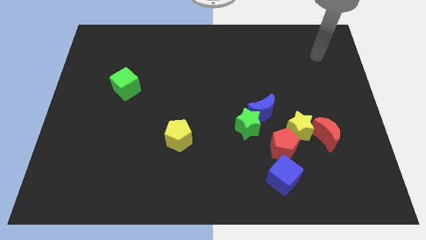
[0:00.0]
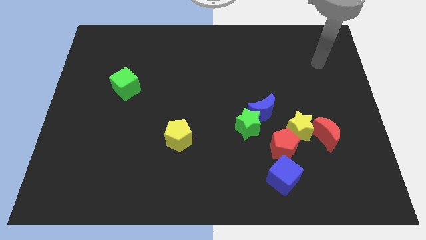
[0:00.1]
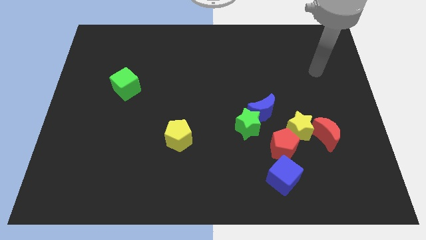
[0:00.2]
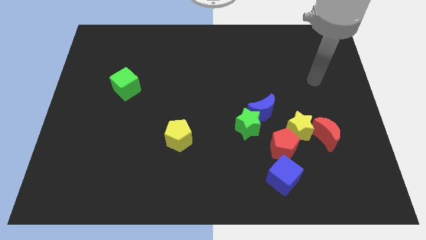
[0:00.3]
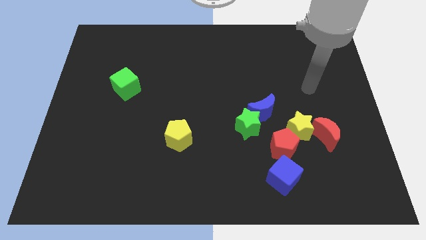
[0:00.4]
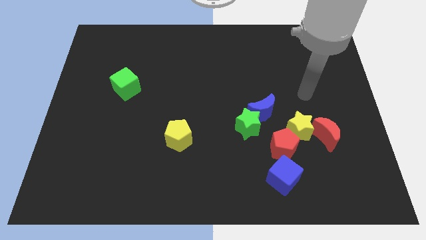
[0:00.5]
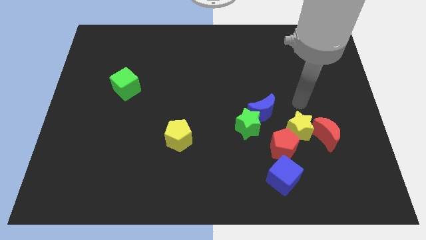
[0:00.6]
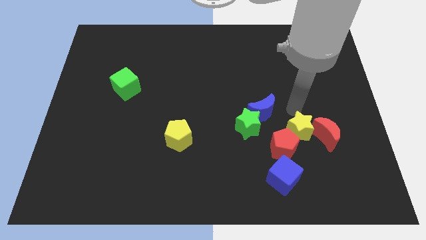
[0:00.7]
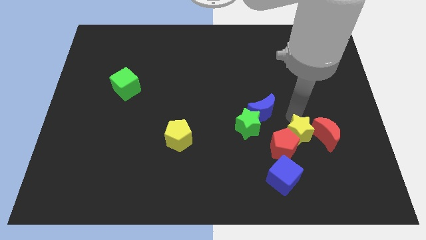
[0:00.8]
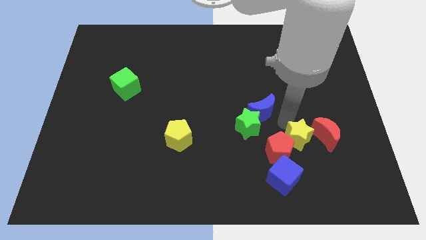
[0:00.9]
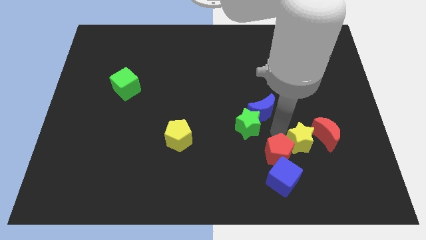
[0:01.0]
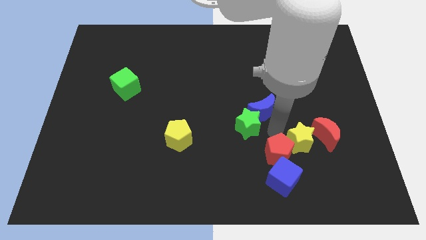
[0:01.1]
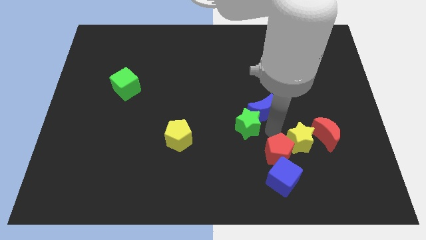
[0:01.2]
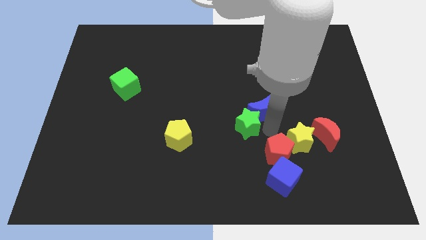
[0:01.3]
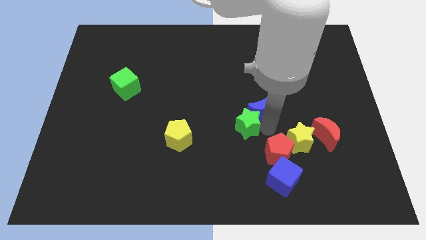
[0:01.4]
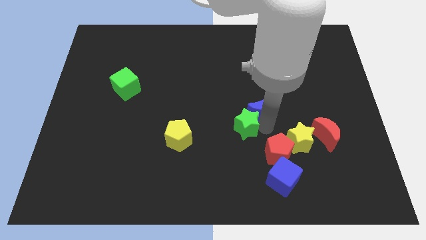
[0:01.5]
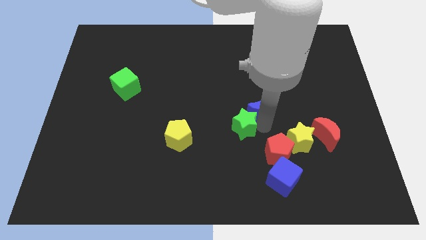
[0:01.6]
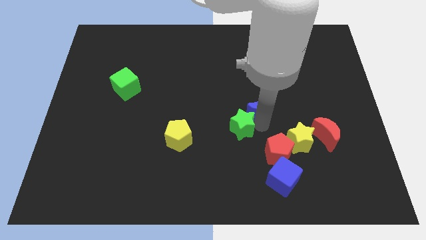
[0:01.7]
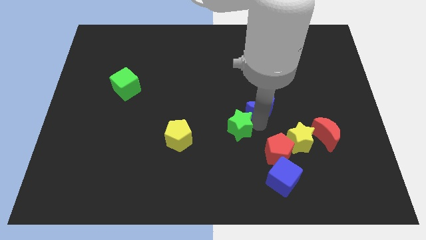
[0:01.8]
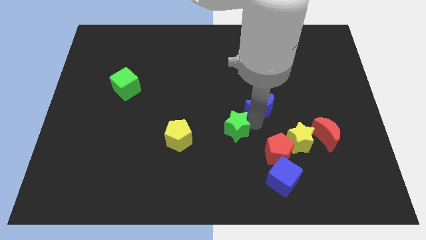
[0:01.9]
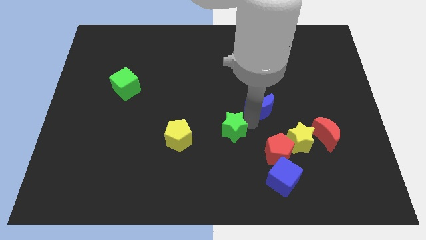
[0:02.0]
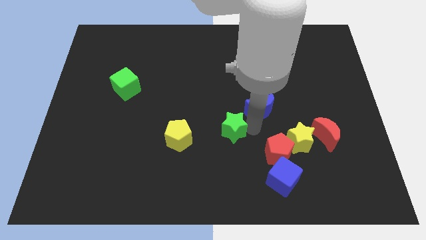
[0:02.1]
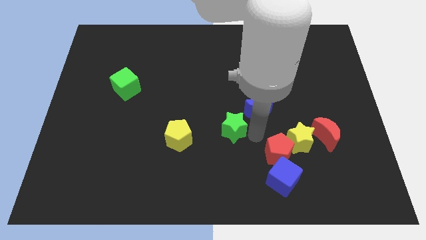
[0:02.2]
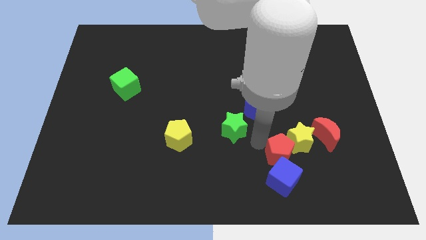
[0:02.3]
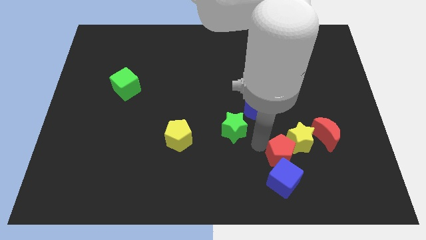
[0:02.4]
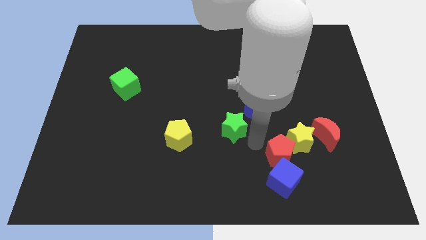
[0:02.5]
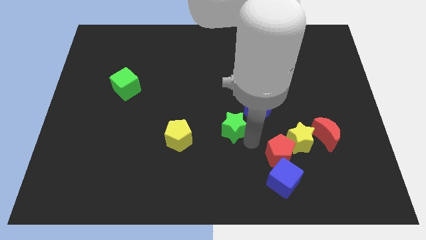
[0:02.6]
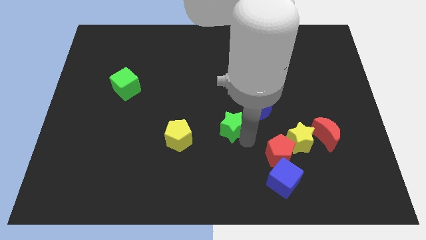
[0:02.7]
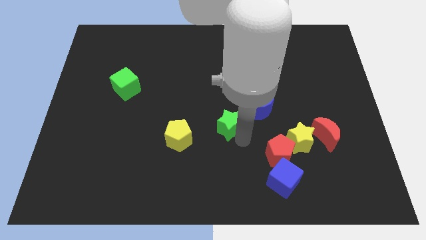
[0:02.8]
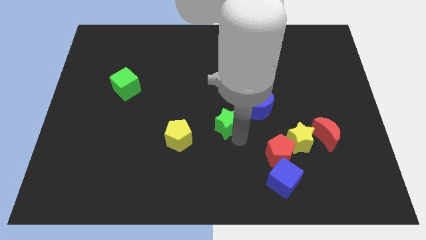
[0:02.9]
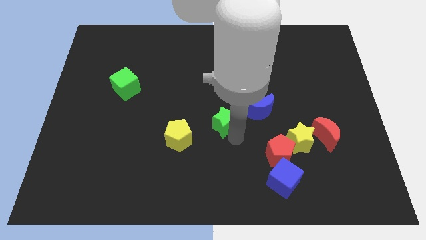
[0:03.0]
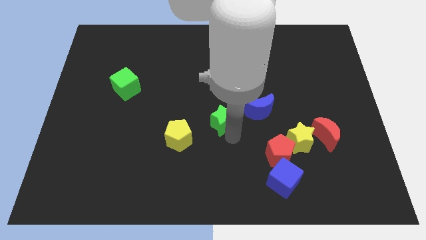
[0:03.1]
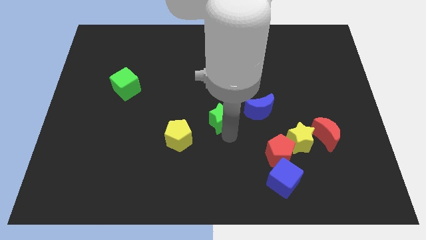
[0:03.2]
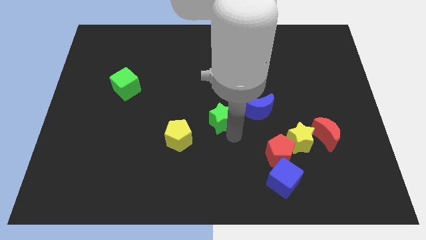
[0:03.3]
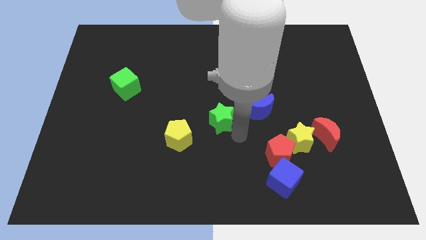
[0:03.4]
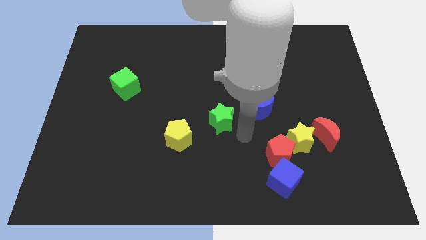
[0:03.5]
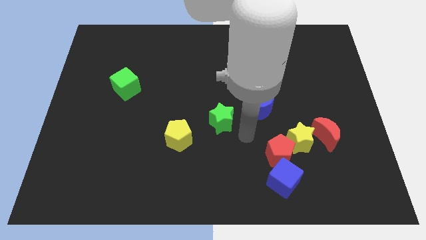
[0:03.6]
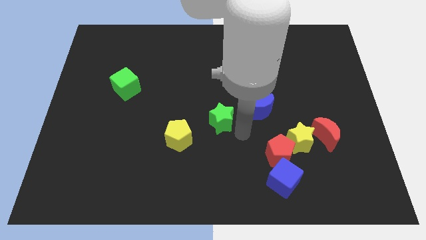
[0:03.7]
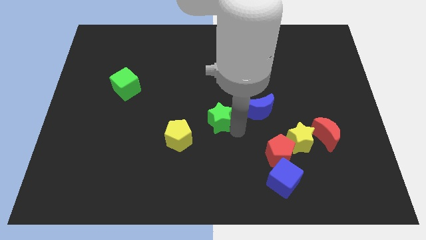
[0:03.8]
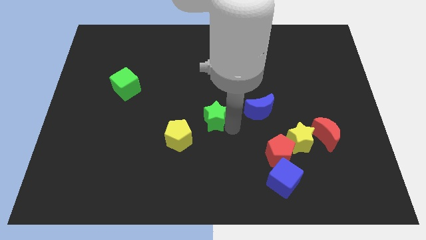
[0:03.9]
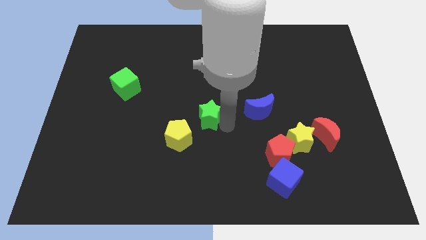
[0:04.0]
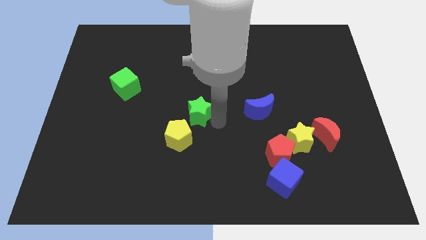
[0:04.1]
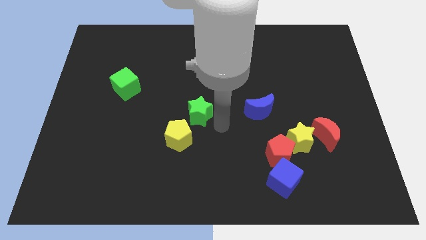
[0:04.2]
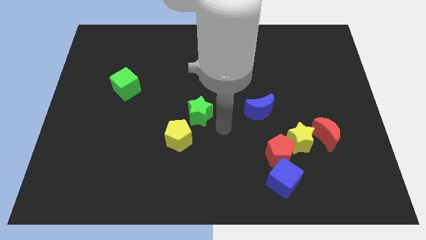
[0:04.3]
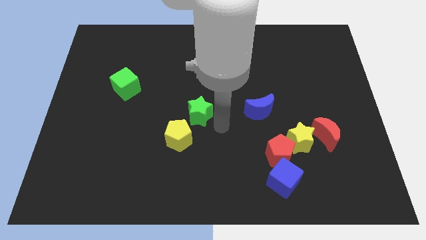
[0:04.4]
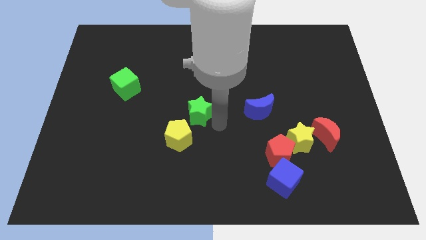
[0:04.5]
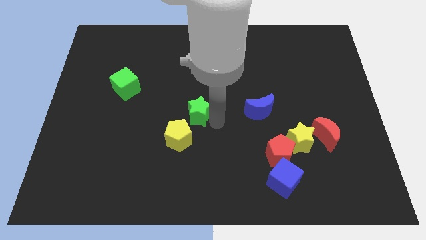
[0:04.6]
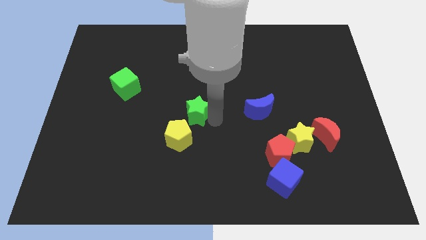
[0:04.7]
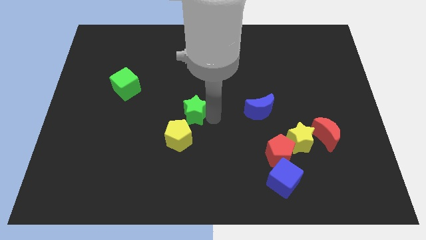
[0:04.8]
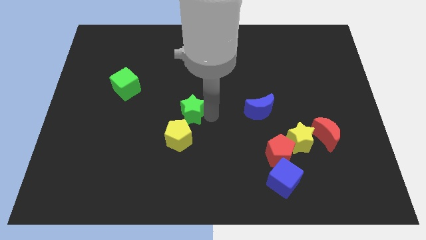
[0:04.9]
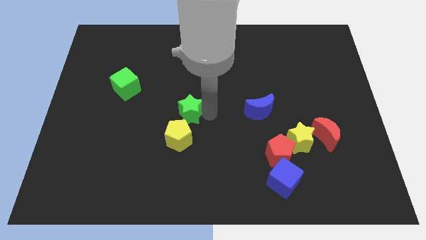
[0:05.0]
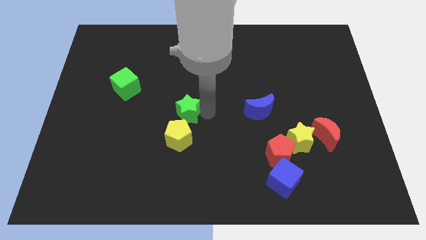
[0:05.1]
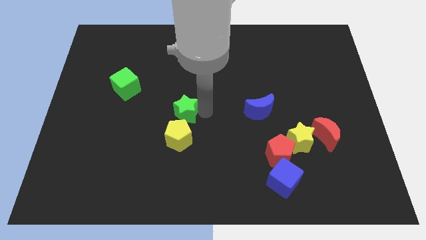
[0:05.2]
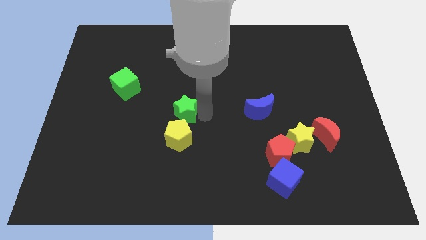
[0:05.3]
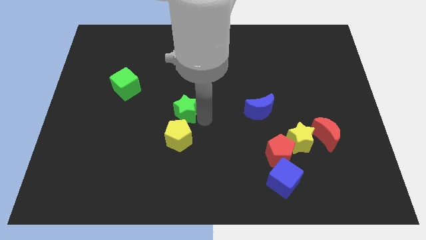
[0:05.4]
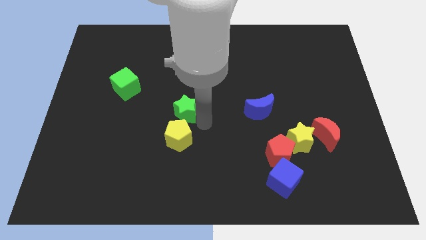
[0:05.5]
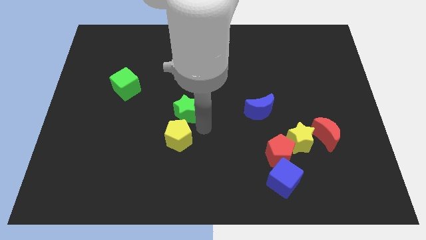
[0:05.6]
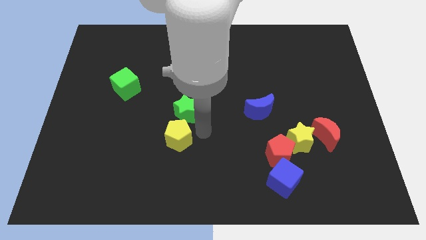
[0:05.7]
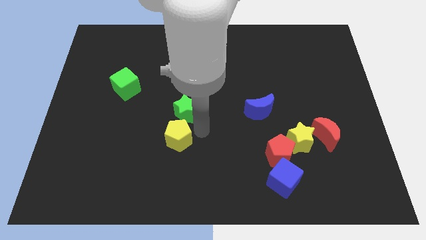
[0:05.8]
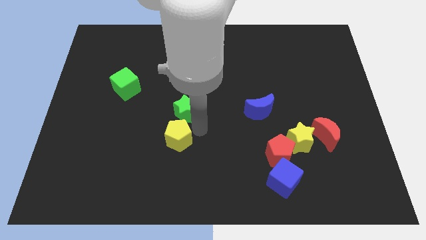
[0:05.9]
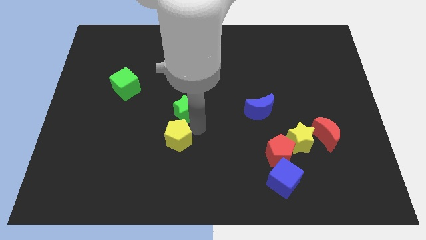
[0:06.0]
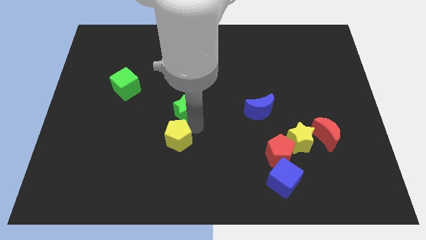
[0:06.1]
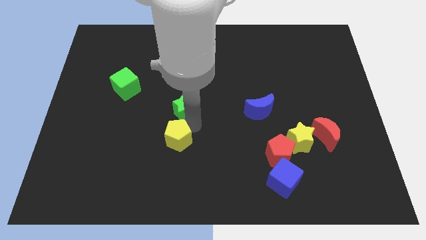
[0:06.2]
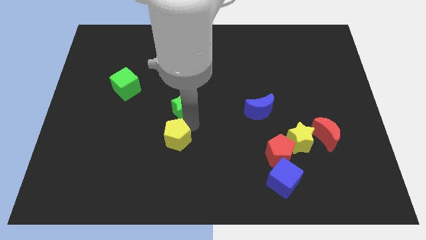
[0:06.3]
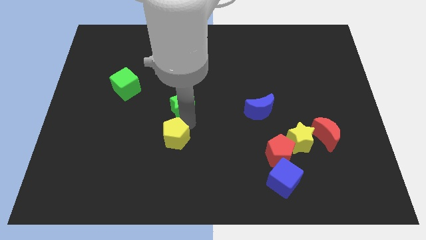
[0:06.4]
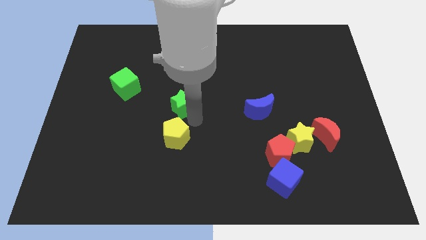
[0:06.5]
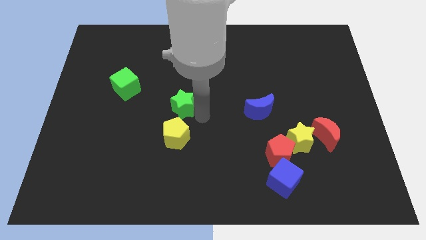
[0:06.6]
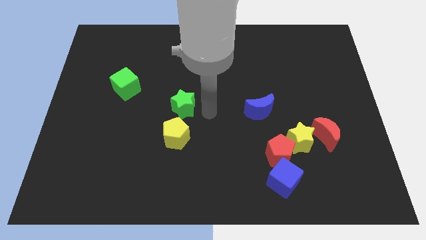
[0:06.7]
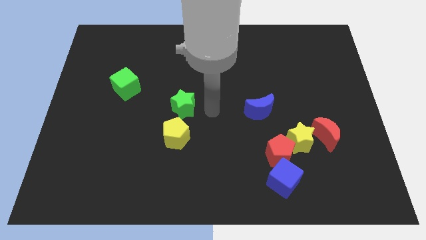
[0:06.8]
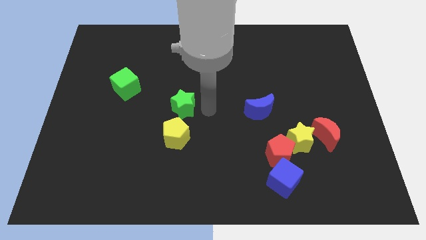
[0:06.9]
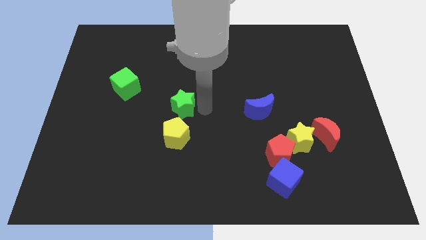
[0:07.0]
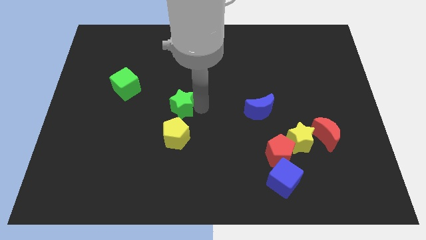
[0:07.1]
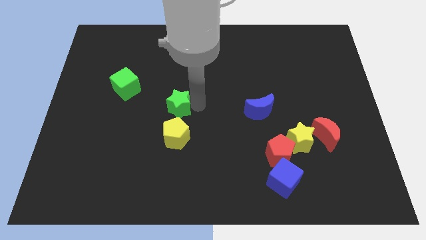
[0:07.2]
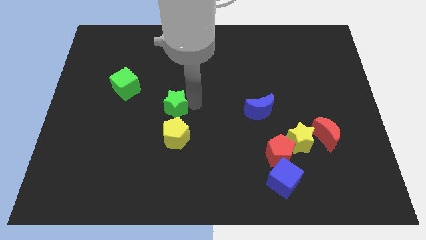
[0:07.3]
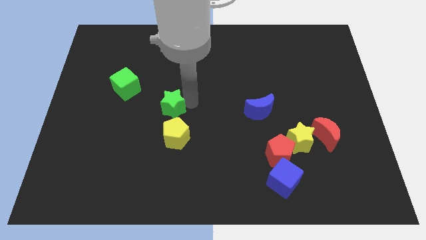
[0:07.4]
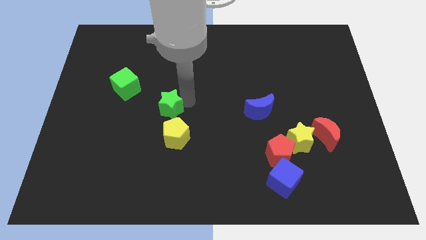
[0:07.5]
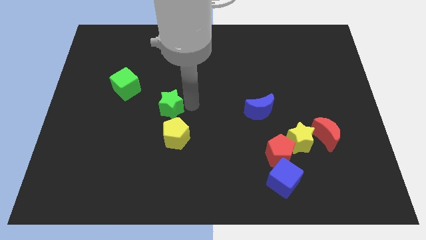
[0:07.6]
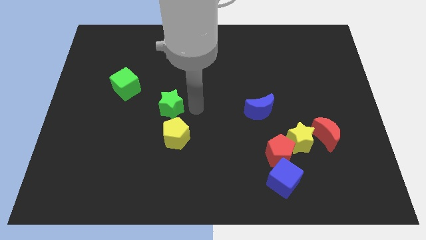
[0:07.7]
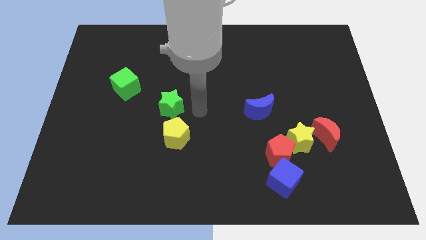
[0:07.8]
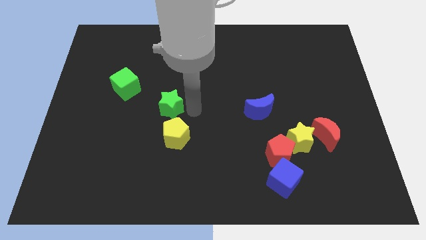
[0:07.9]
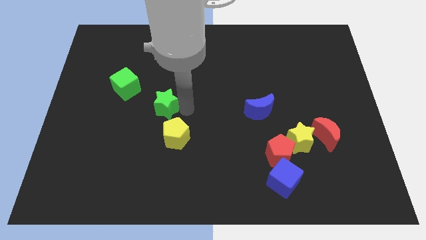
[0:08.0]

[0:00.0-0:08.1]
move the green star to the bottom right of the green cube
